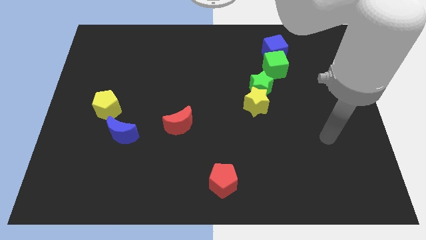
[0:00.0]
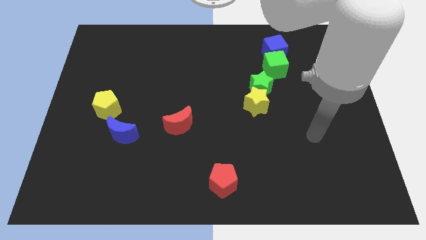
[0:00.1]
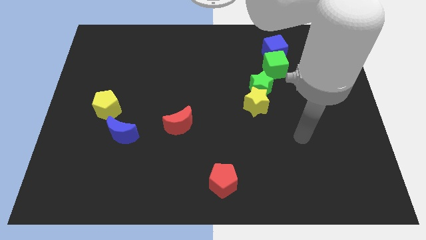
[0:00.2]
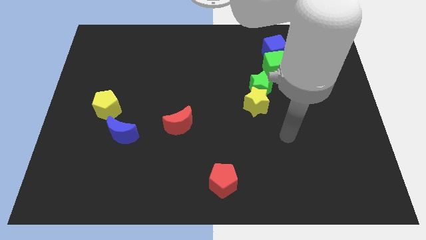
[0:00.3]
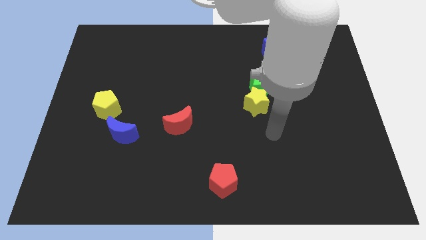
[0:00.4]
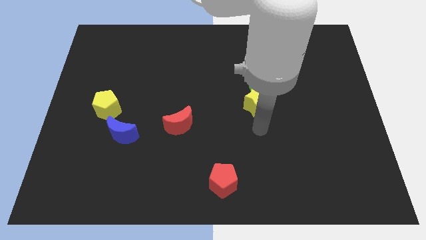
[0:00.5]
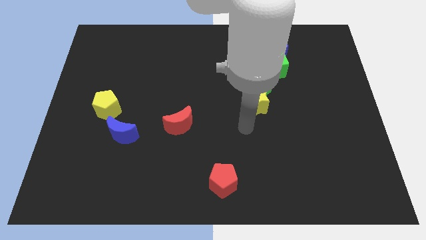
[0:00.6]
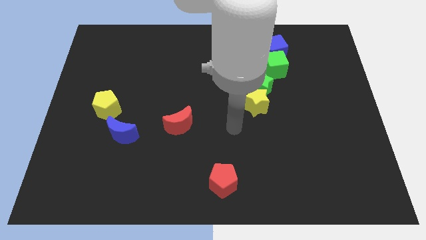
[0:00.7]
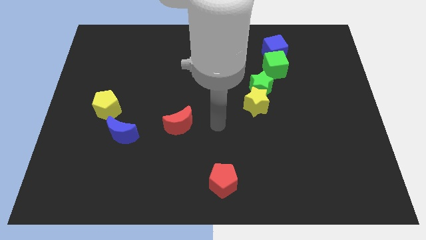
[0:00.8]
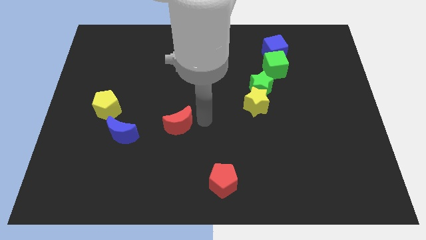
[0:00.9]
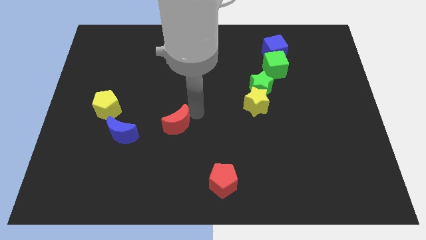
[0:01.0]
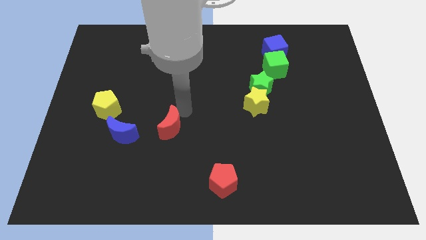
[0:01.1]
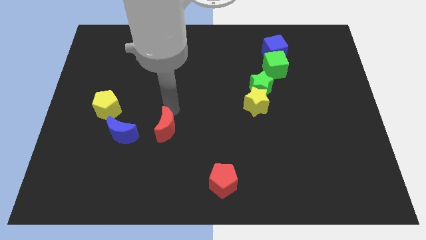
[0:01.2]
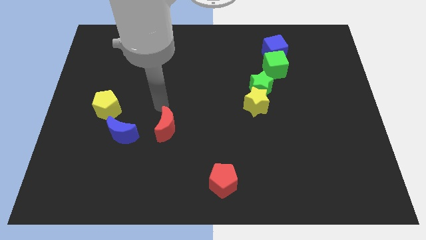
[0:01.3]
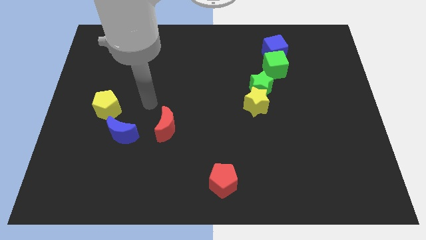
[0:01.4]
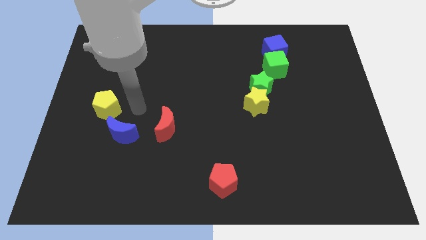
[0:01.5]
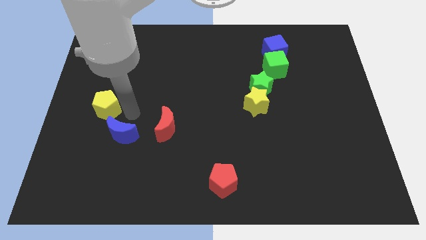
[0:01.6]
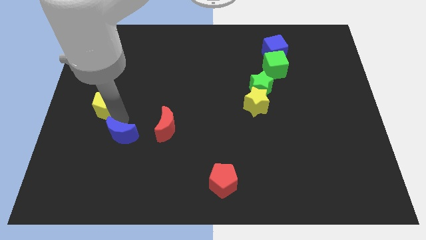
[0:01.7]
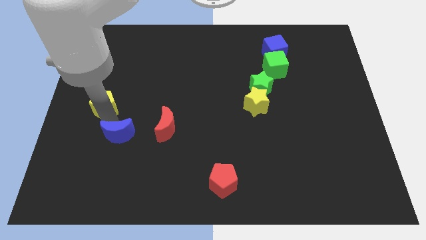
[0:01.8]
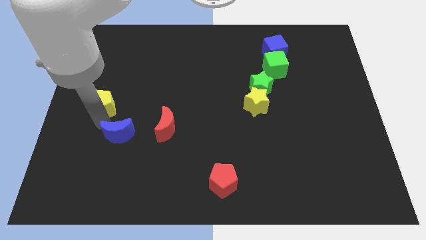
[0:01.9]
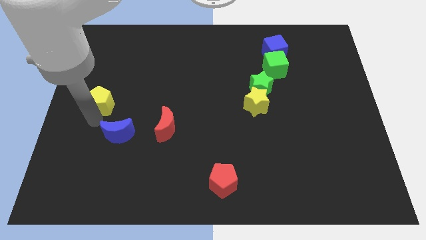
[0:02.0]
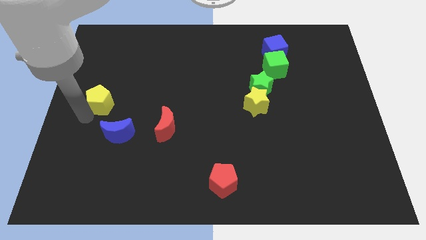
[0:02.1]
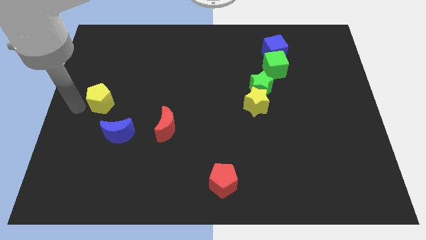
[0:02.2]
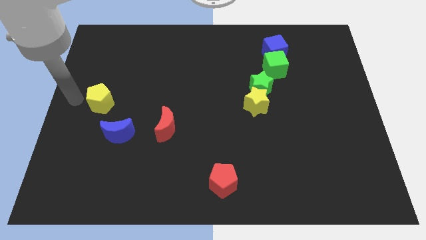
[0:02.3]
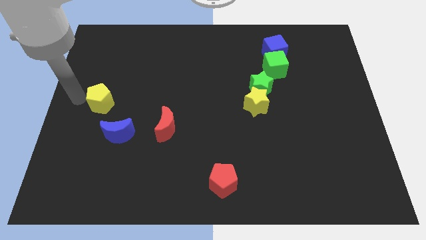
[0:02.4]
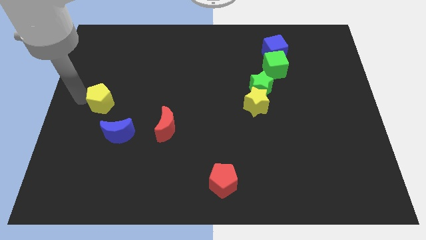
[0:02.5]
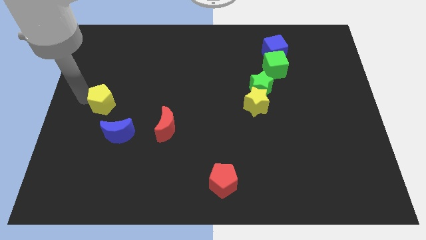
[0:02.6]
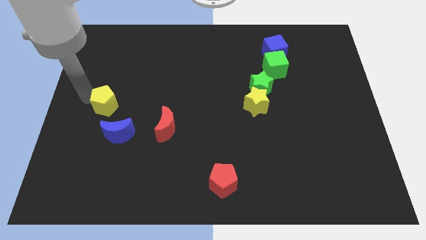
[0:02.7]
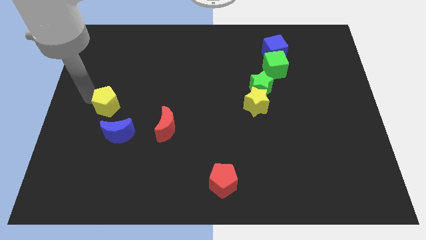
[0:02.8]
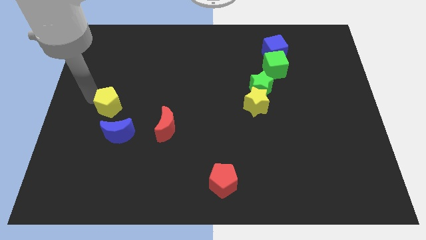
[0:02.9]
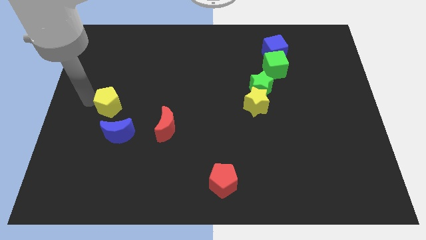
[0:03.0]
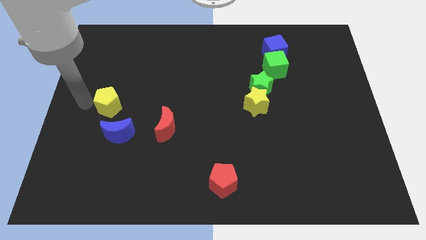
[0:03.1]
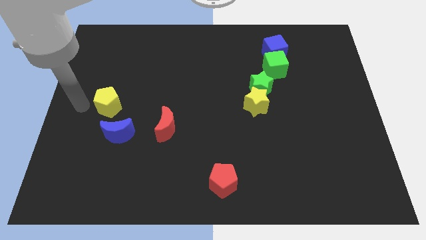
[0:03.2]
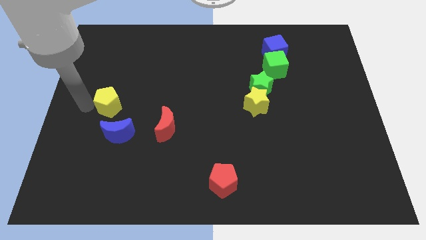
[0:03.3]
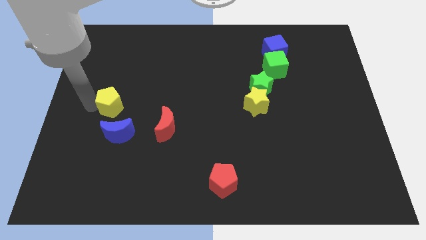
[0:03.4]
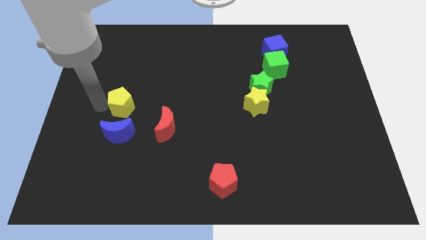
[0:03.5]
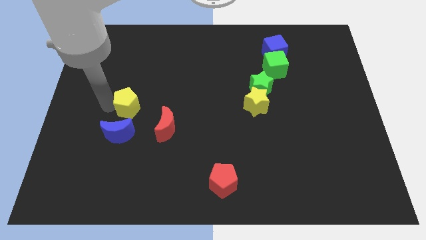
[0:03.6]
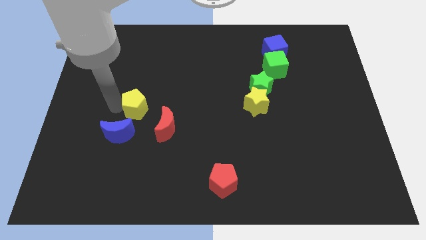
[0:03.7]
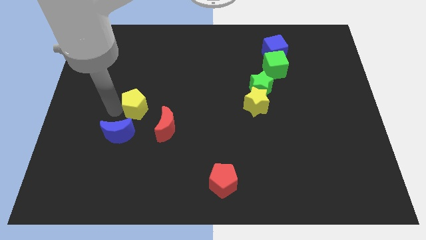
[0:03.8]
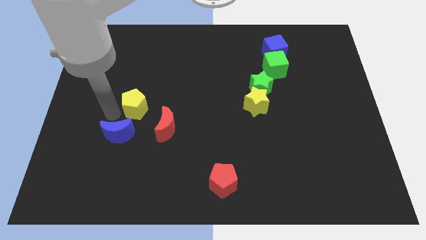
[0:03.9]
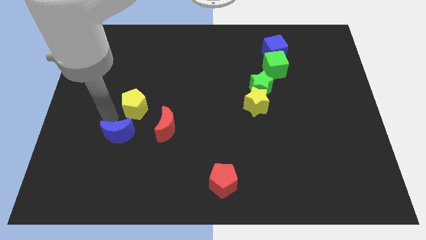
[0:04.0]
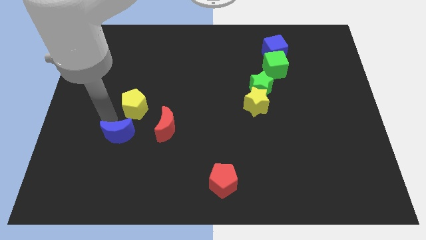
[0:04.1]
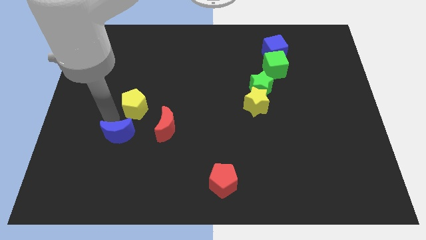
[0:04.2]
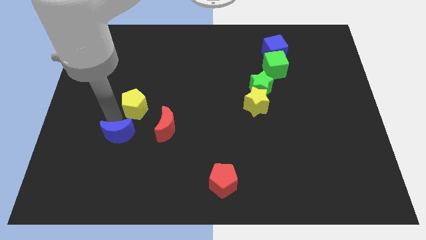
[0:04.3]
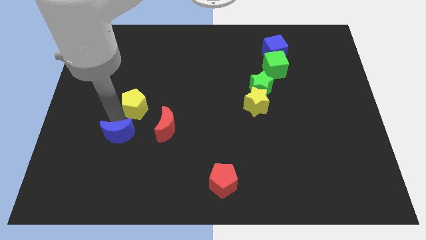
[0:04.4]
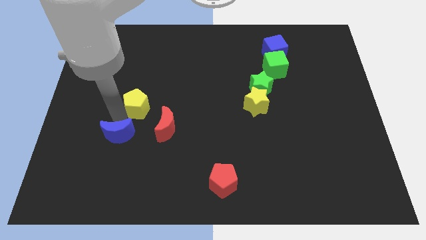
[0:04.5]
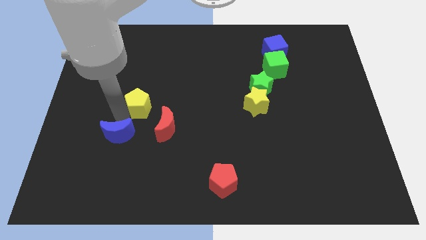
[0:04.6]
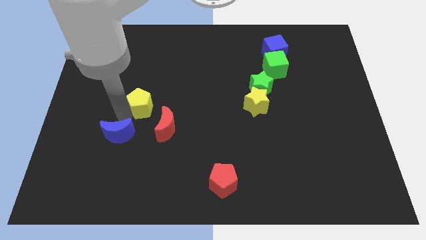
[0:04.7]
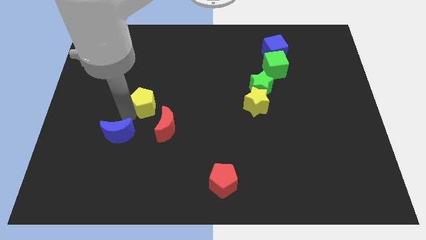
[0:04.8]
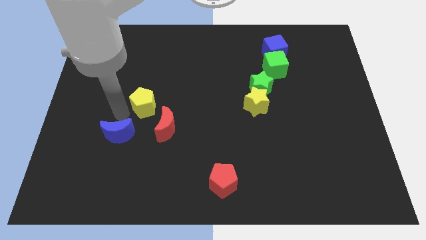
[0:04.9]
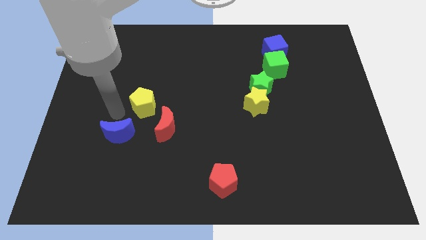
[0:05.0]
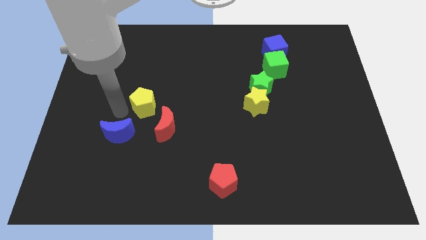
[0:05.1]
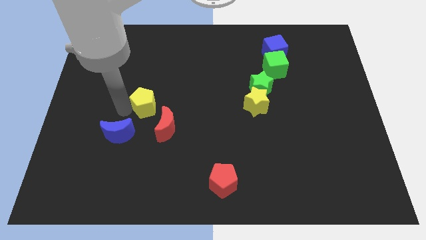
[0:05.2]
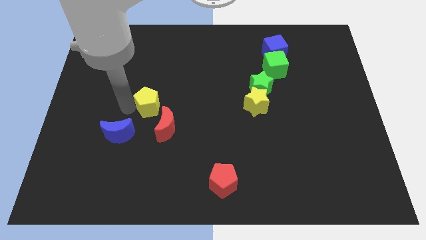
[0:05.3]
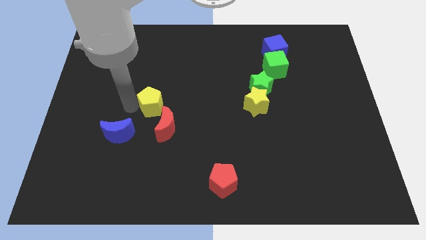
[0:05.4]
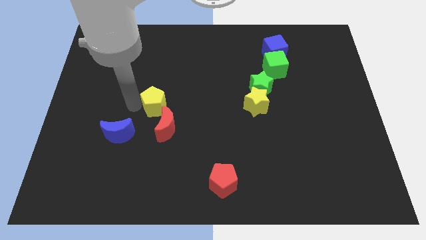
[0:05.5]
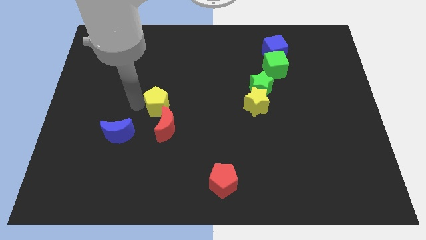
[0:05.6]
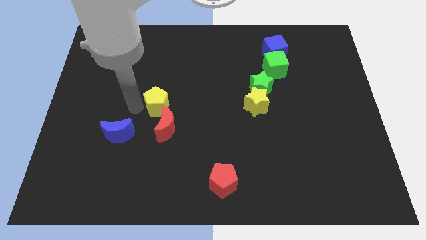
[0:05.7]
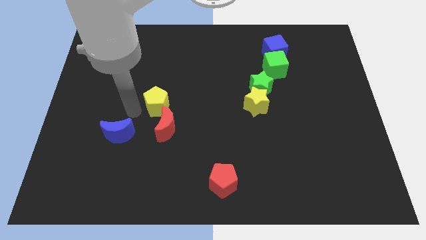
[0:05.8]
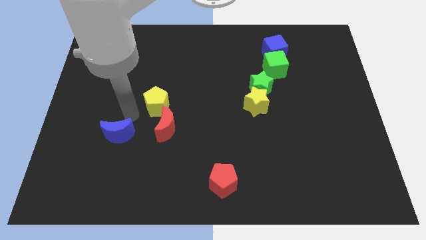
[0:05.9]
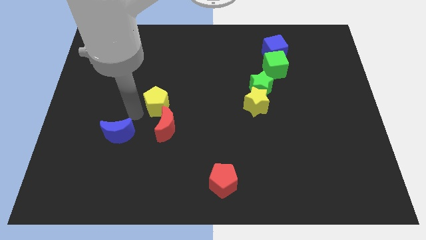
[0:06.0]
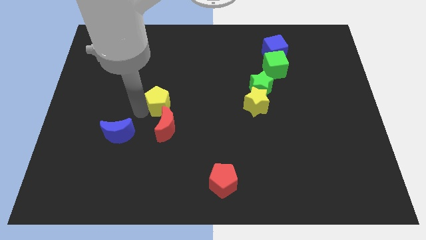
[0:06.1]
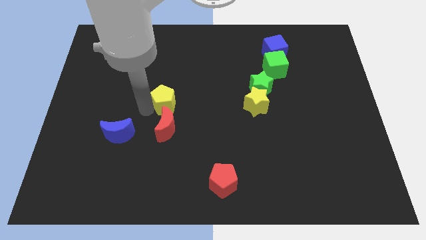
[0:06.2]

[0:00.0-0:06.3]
push the yellow pentagon to the middle of the board
